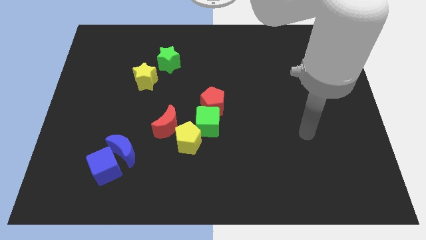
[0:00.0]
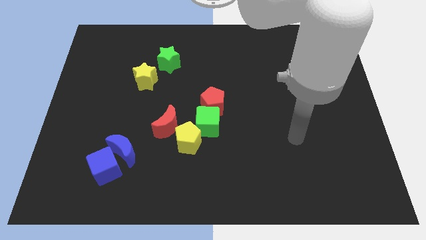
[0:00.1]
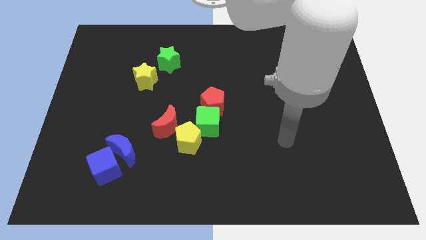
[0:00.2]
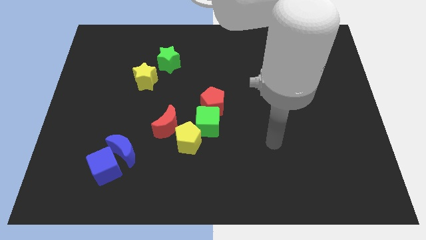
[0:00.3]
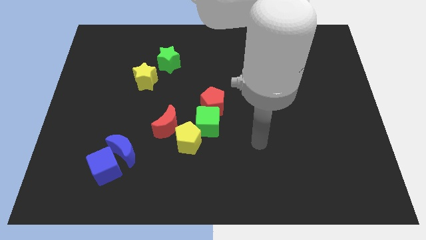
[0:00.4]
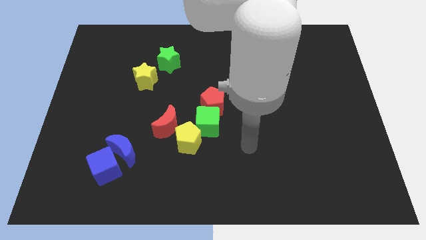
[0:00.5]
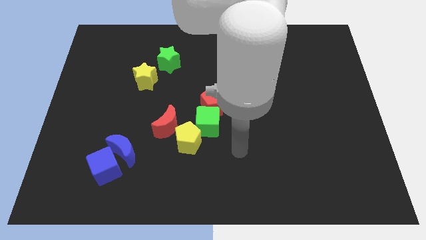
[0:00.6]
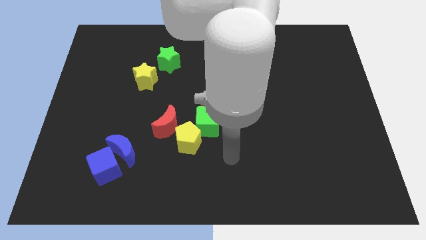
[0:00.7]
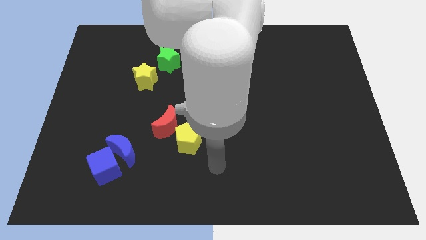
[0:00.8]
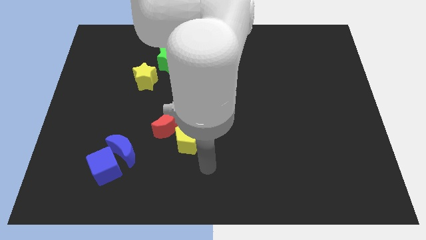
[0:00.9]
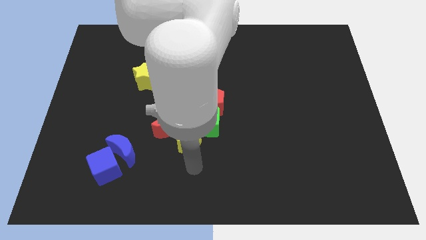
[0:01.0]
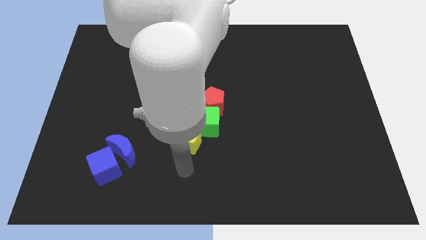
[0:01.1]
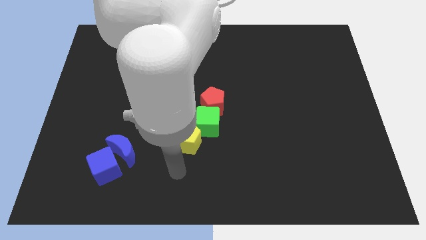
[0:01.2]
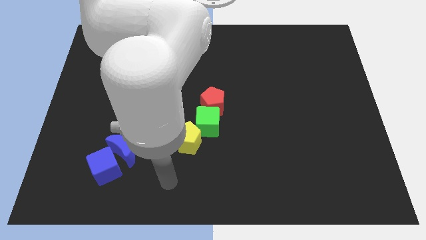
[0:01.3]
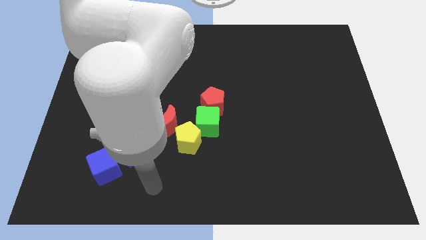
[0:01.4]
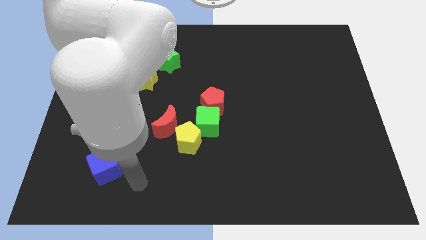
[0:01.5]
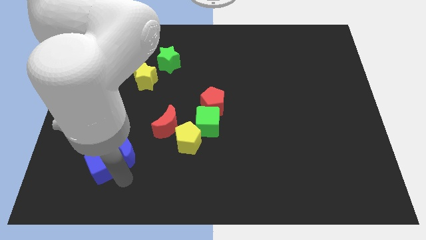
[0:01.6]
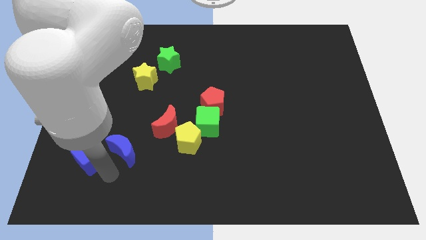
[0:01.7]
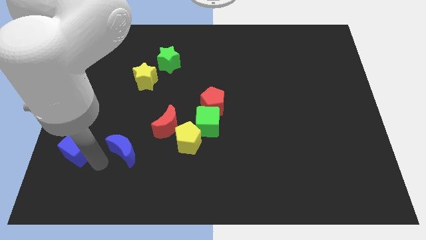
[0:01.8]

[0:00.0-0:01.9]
pull the blue moon apart from the blue cube

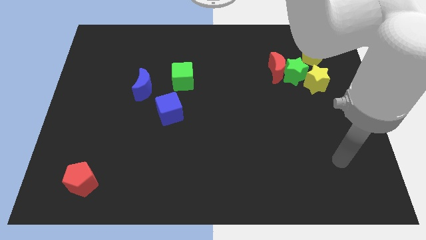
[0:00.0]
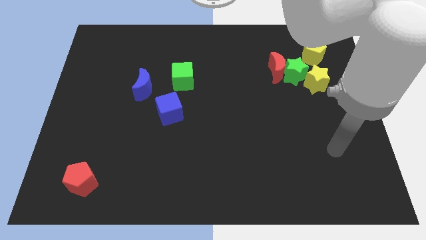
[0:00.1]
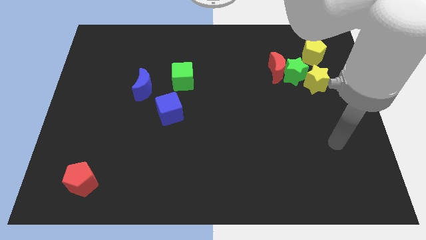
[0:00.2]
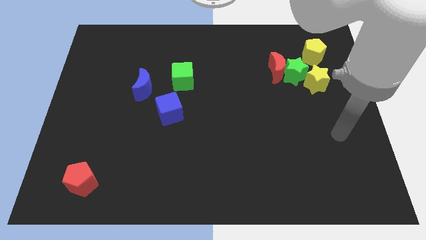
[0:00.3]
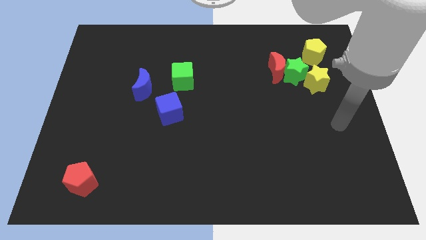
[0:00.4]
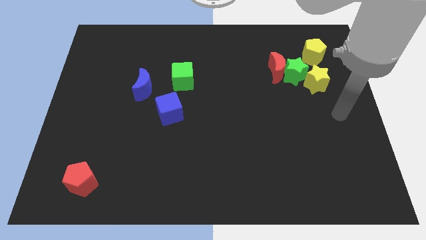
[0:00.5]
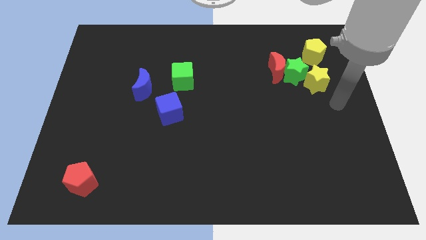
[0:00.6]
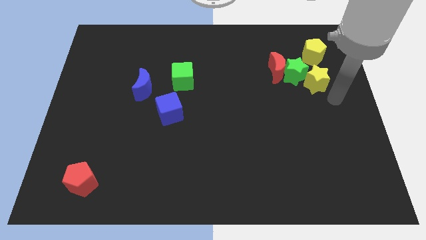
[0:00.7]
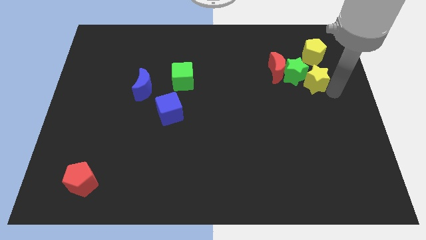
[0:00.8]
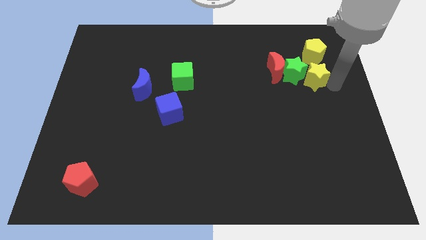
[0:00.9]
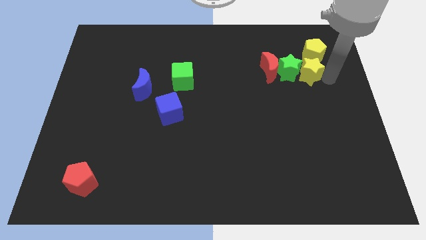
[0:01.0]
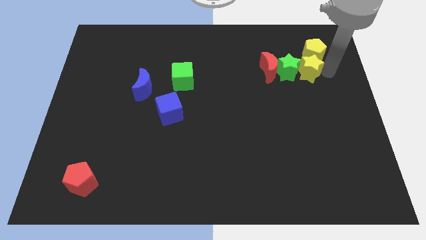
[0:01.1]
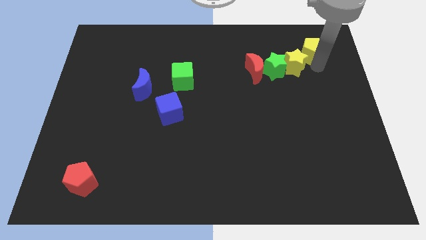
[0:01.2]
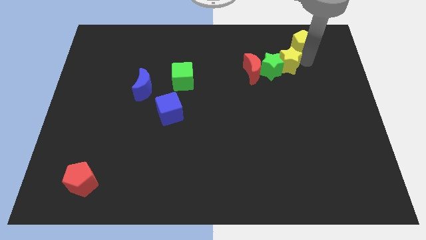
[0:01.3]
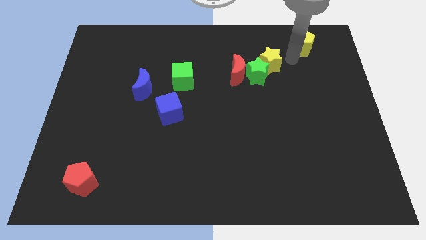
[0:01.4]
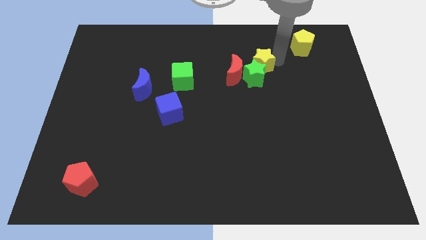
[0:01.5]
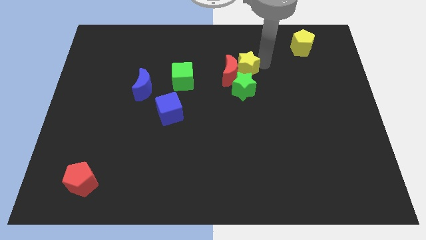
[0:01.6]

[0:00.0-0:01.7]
separate the green star from the group

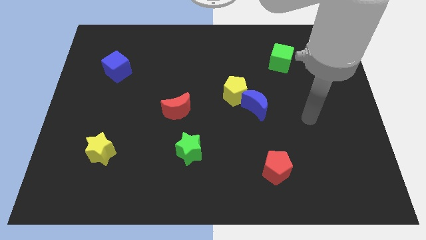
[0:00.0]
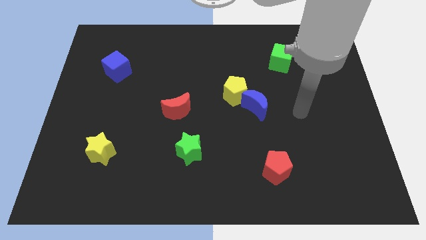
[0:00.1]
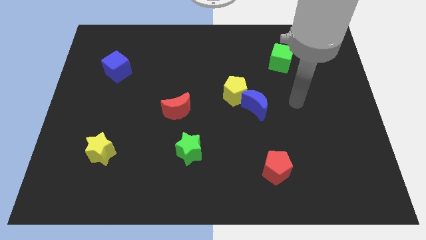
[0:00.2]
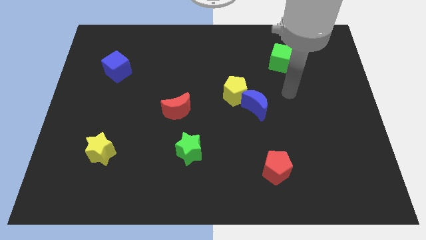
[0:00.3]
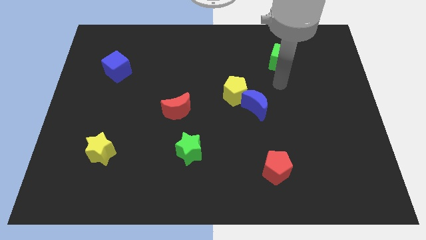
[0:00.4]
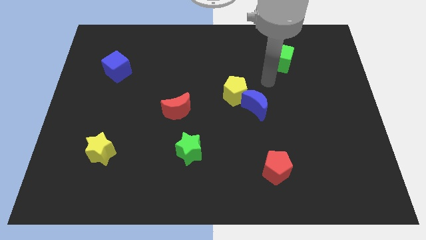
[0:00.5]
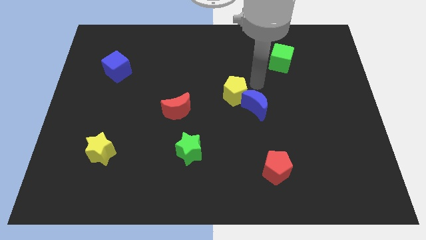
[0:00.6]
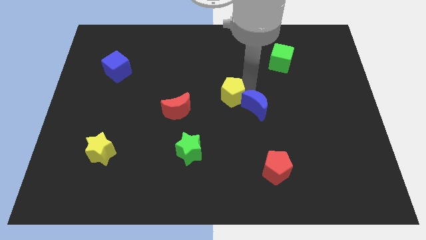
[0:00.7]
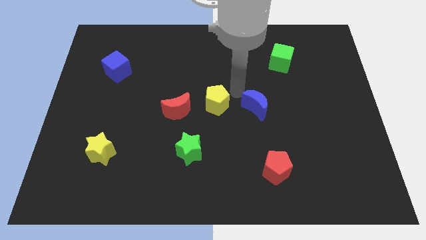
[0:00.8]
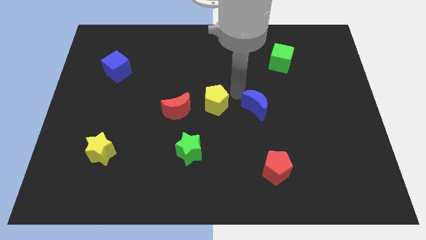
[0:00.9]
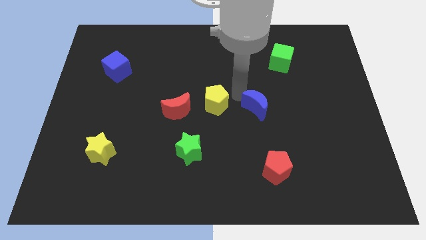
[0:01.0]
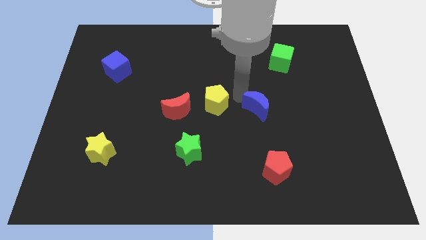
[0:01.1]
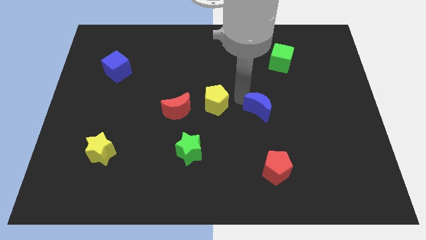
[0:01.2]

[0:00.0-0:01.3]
separate the blue moon from the yellow pentagon

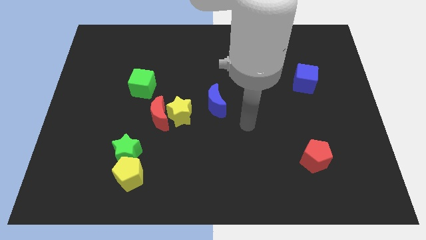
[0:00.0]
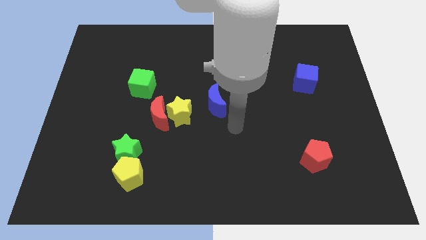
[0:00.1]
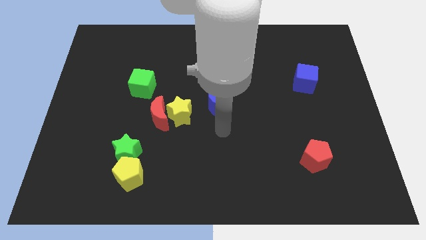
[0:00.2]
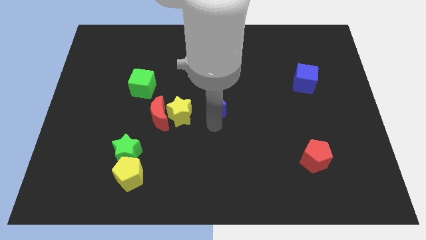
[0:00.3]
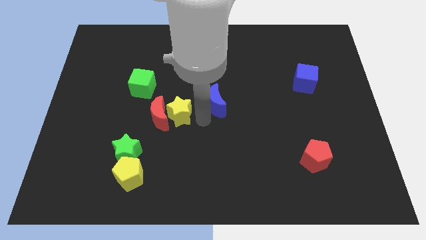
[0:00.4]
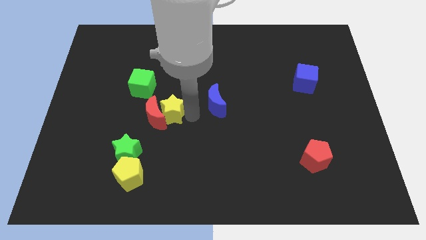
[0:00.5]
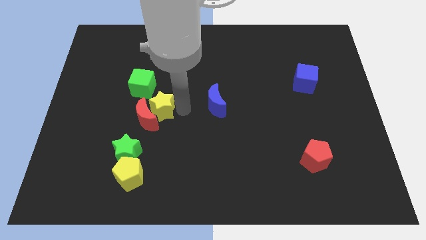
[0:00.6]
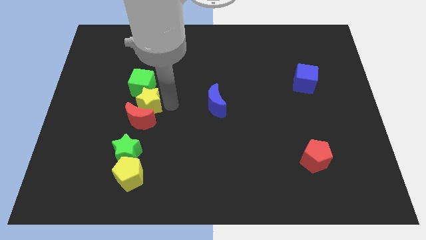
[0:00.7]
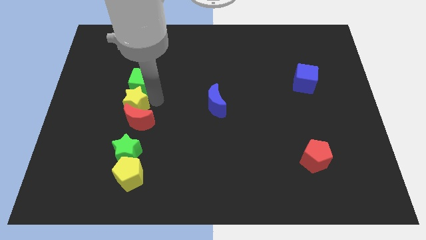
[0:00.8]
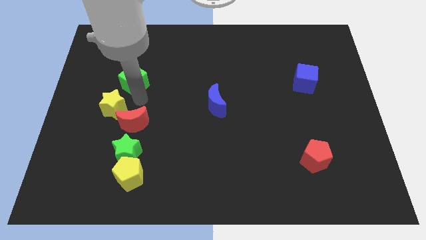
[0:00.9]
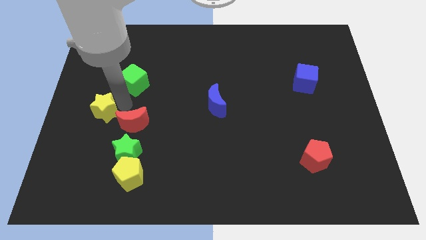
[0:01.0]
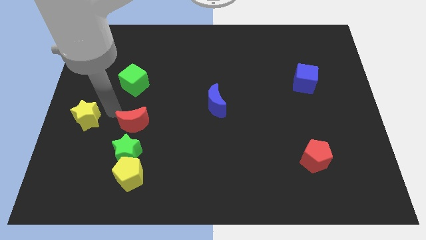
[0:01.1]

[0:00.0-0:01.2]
separate the red moon from the yellow star

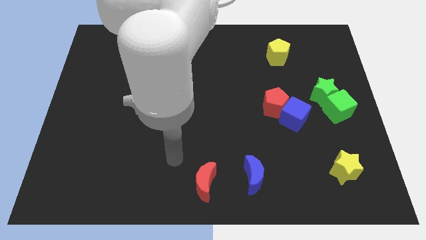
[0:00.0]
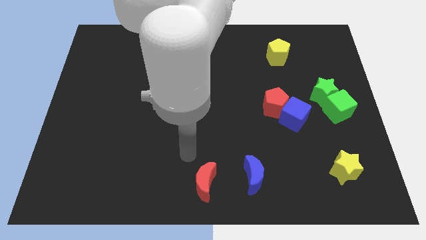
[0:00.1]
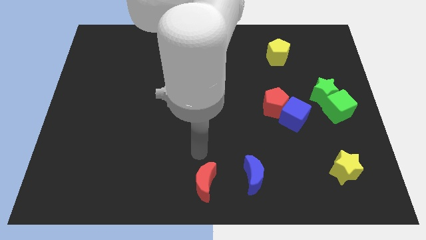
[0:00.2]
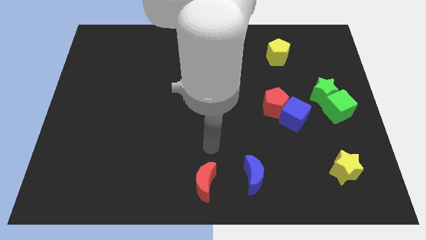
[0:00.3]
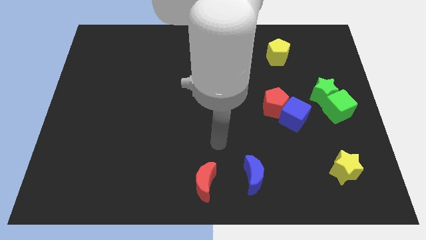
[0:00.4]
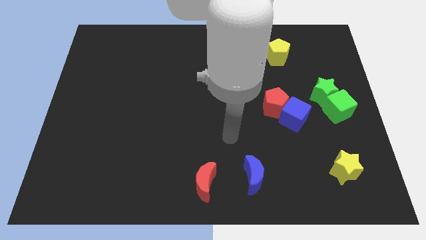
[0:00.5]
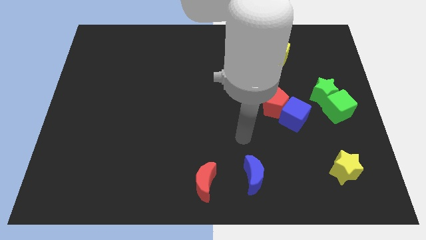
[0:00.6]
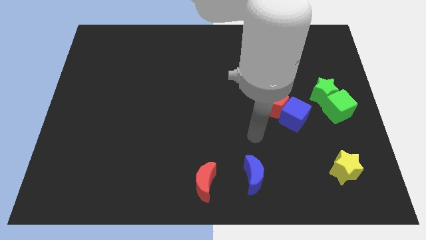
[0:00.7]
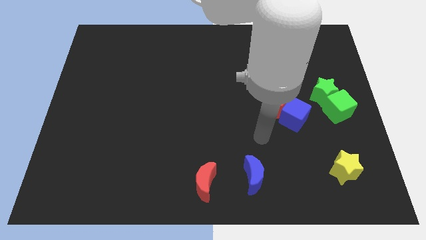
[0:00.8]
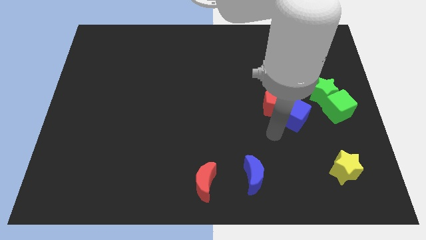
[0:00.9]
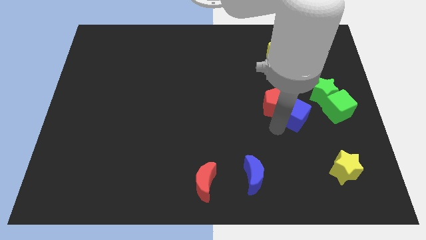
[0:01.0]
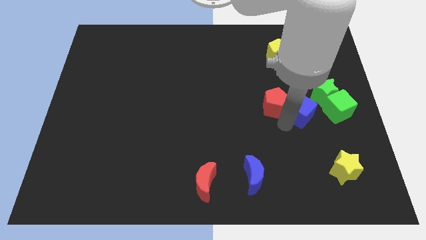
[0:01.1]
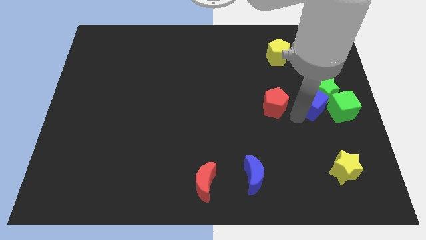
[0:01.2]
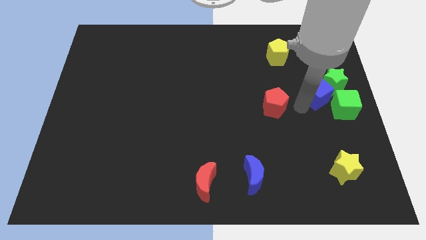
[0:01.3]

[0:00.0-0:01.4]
pull the red pentagon apart from the blue cube

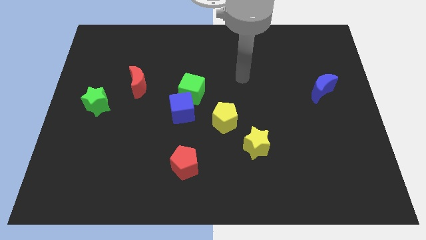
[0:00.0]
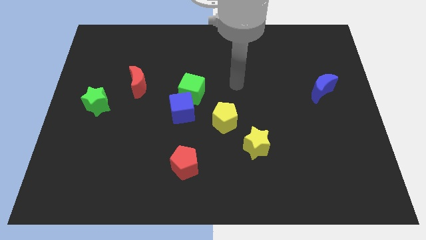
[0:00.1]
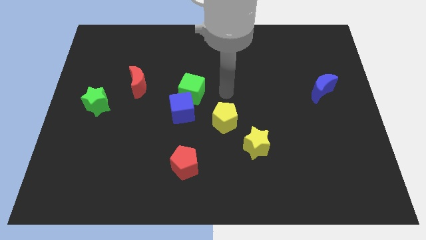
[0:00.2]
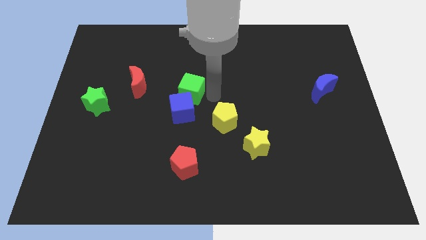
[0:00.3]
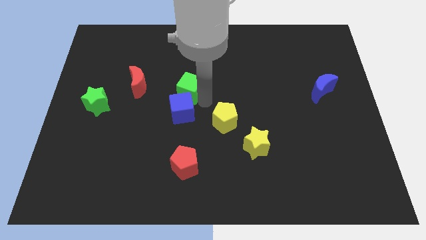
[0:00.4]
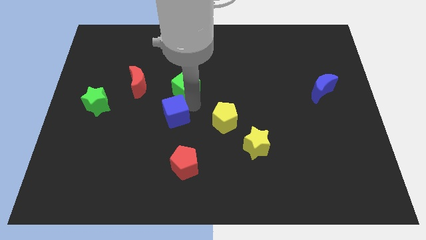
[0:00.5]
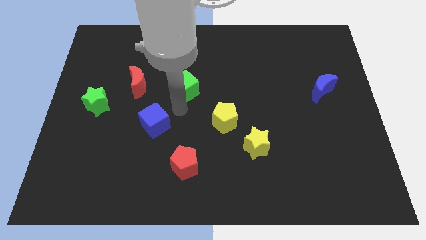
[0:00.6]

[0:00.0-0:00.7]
move the green cube away from the blue cube

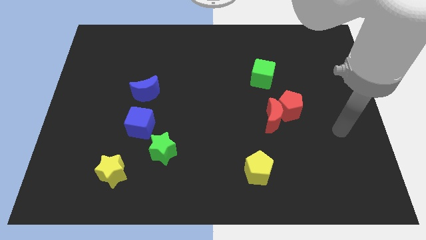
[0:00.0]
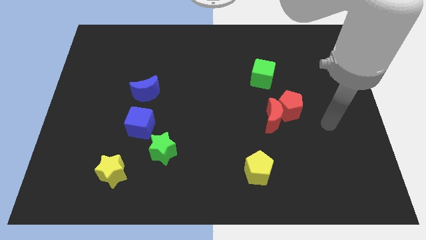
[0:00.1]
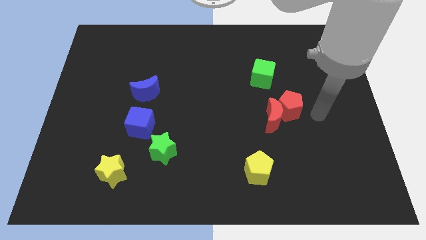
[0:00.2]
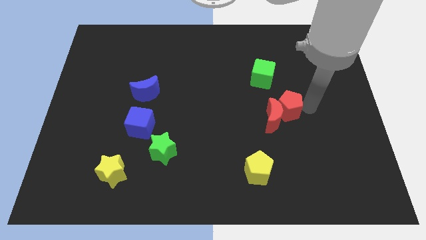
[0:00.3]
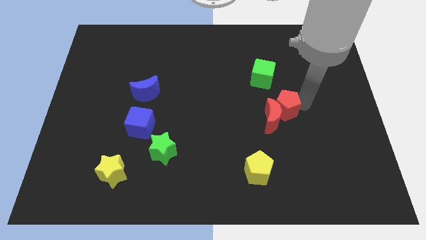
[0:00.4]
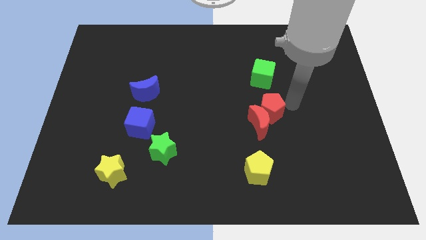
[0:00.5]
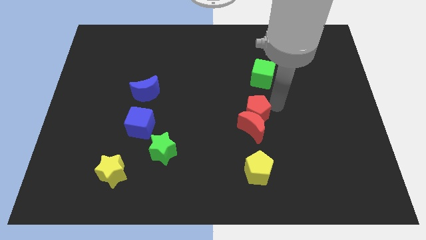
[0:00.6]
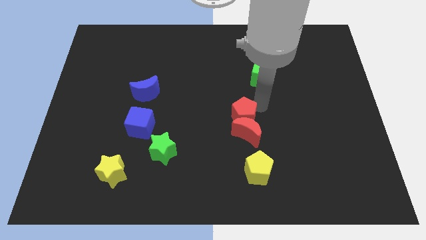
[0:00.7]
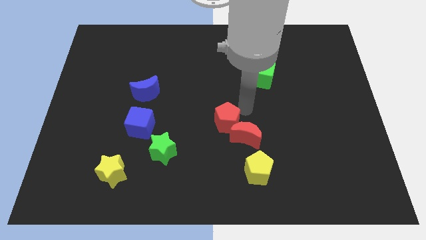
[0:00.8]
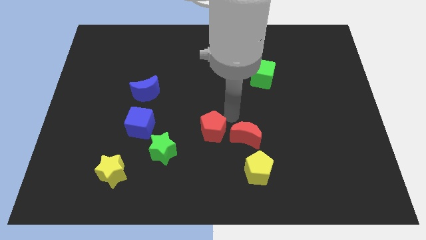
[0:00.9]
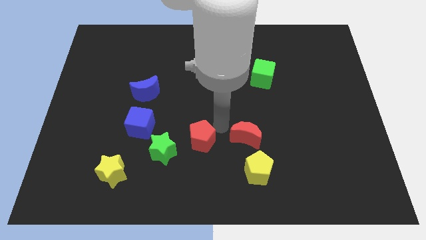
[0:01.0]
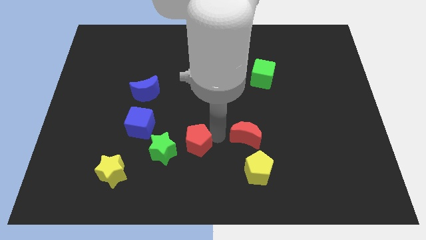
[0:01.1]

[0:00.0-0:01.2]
separate the red moon from the red pentagon
